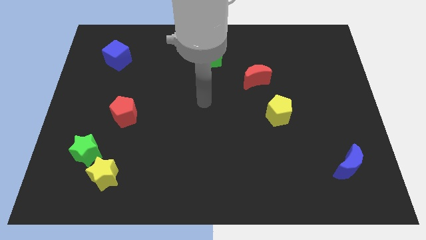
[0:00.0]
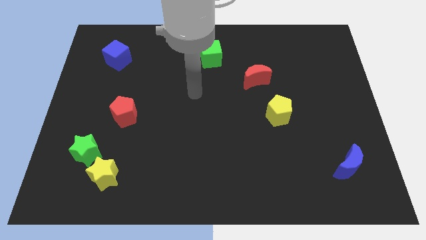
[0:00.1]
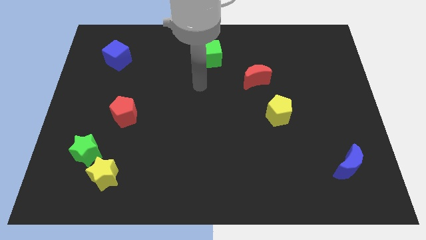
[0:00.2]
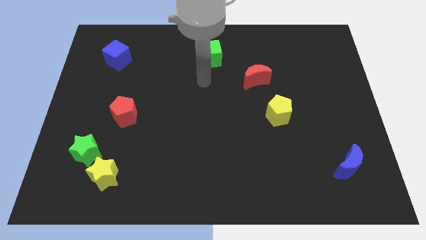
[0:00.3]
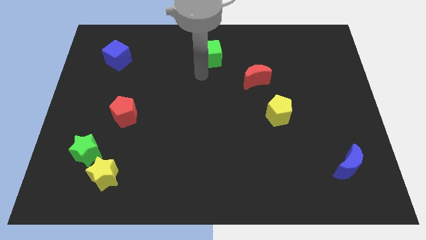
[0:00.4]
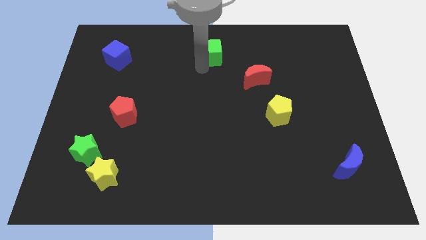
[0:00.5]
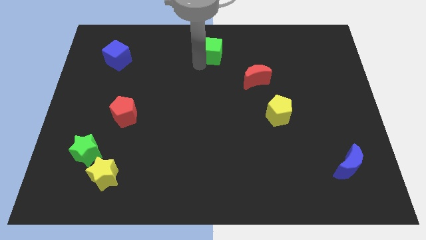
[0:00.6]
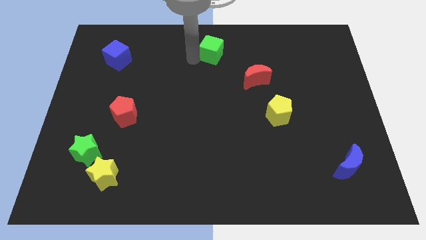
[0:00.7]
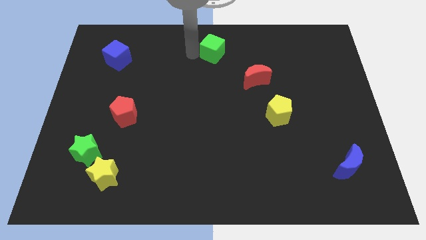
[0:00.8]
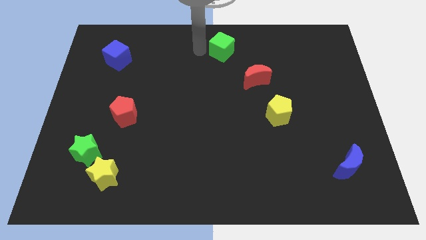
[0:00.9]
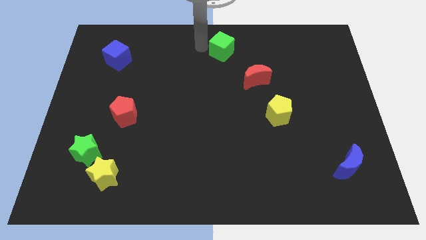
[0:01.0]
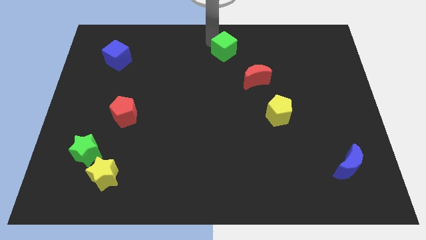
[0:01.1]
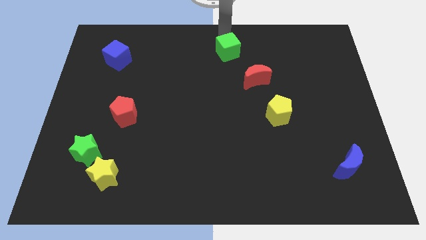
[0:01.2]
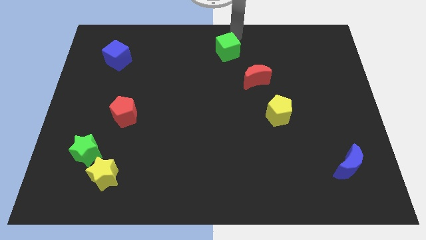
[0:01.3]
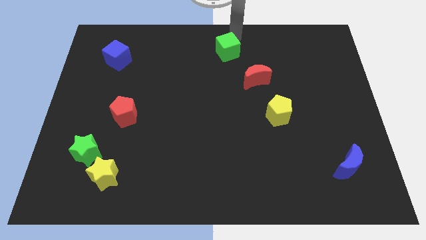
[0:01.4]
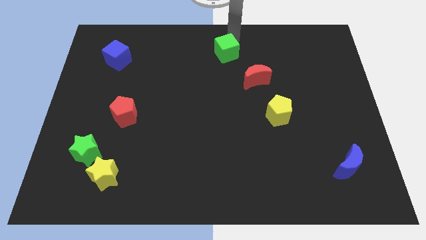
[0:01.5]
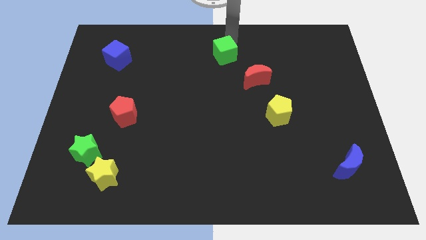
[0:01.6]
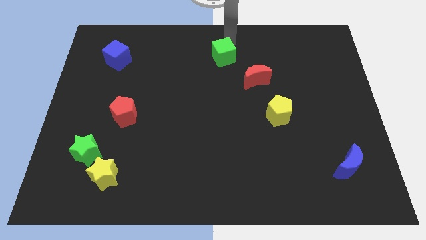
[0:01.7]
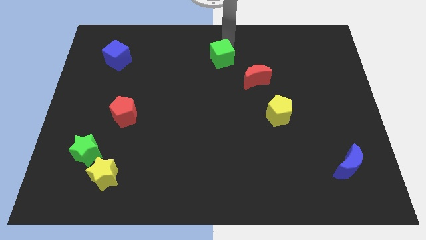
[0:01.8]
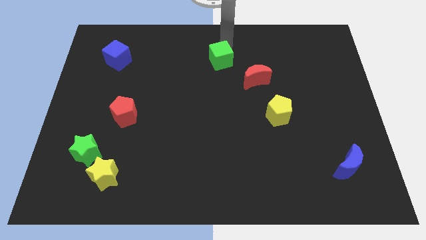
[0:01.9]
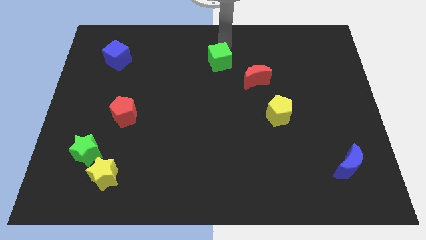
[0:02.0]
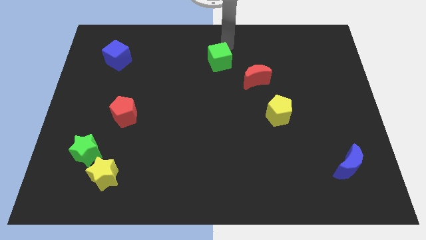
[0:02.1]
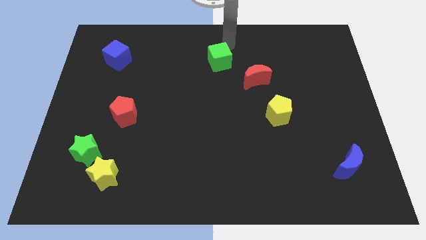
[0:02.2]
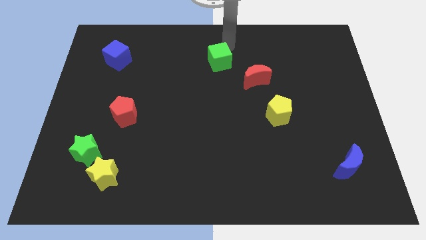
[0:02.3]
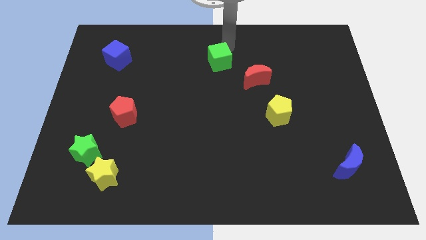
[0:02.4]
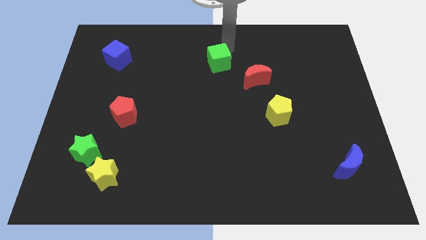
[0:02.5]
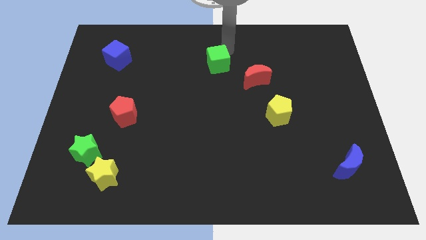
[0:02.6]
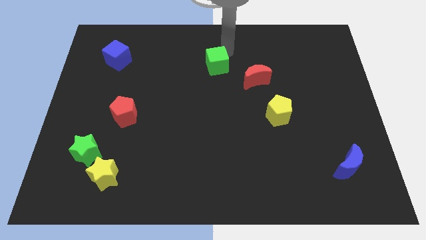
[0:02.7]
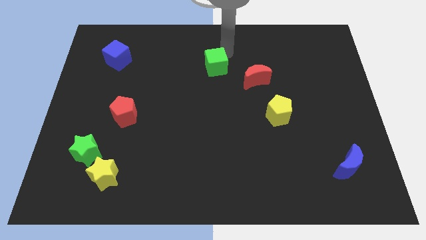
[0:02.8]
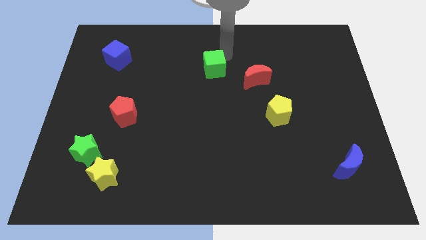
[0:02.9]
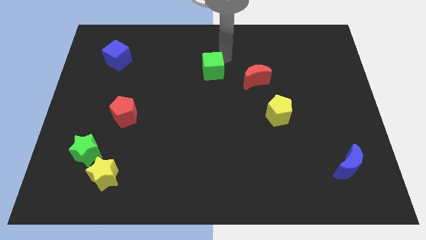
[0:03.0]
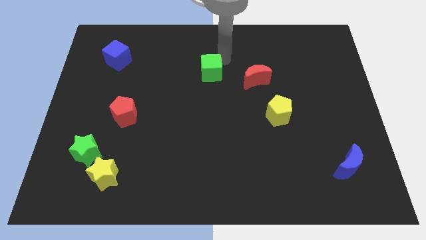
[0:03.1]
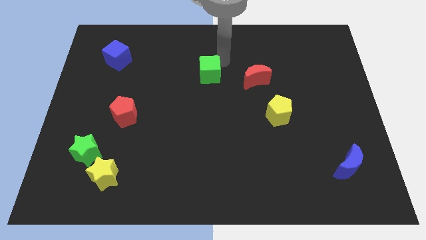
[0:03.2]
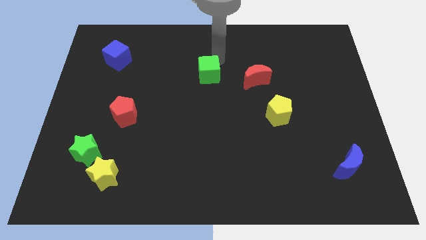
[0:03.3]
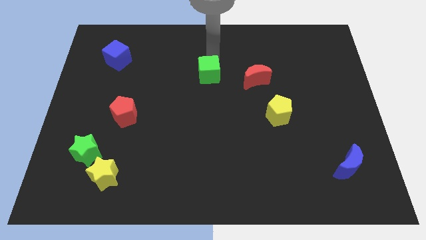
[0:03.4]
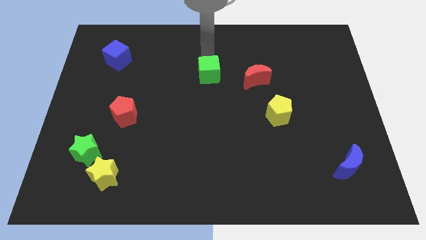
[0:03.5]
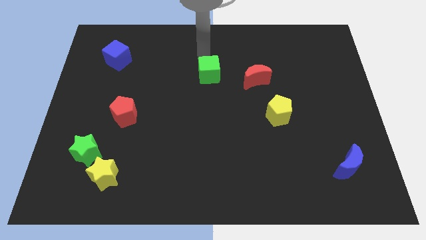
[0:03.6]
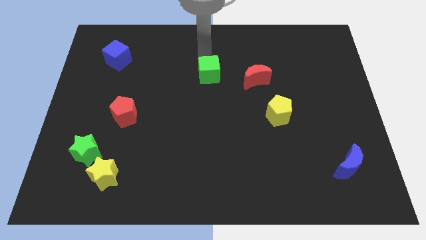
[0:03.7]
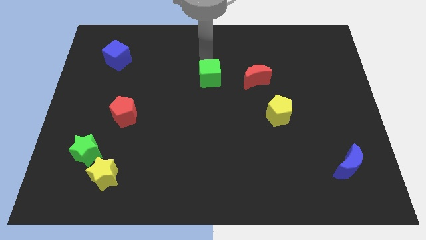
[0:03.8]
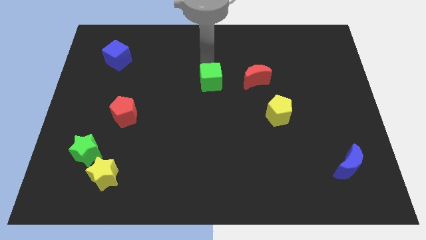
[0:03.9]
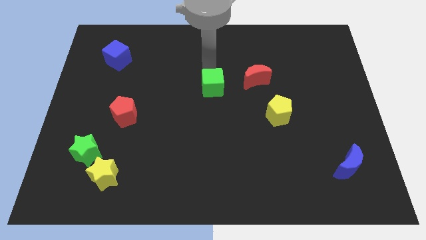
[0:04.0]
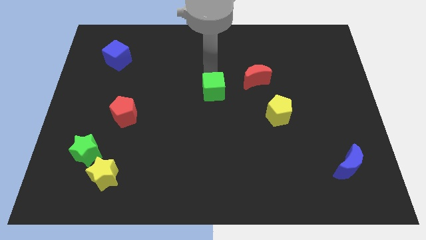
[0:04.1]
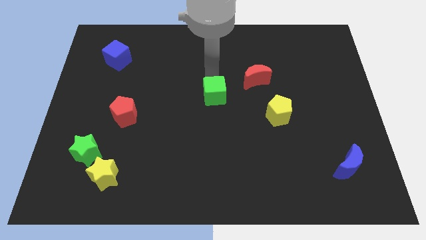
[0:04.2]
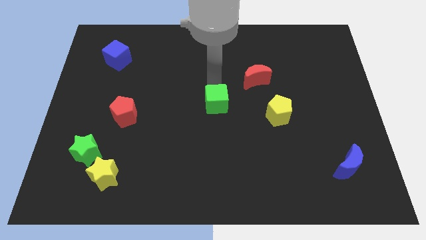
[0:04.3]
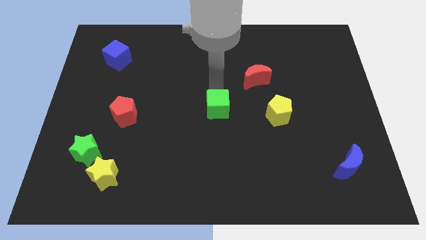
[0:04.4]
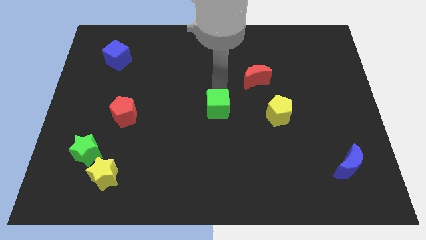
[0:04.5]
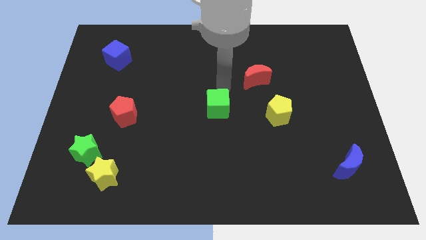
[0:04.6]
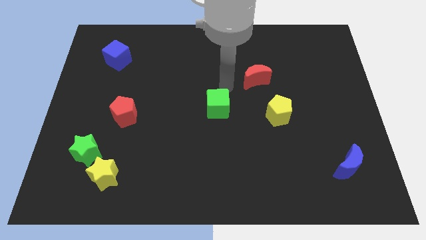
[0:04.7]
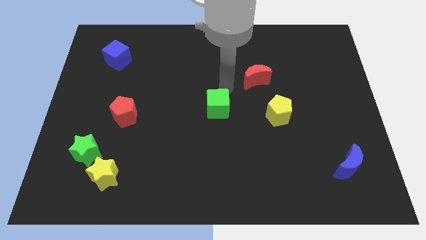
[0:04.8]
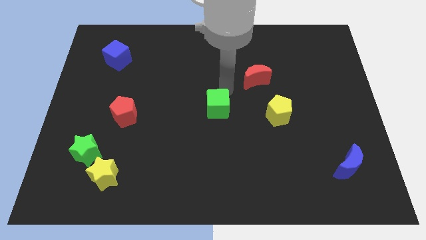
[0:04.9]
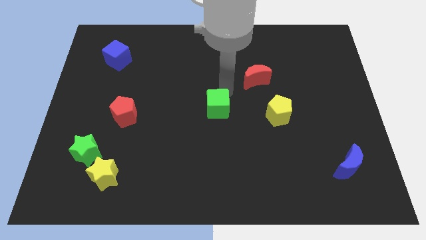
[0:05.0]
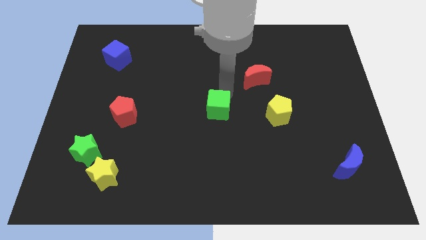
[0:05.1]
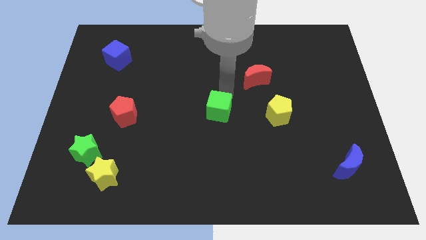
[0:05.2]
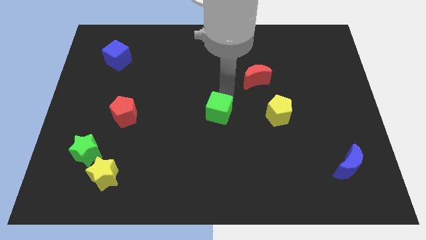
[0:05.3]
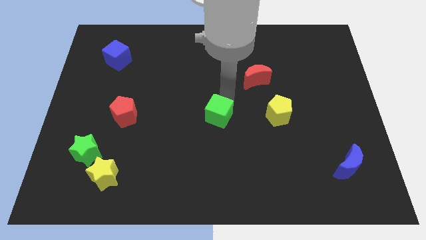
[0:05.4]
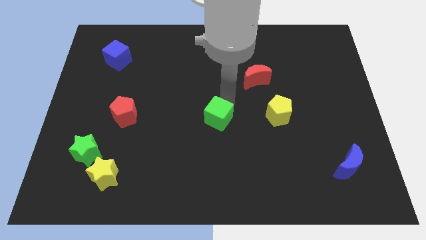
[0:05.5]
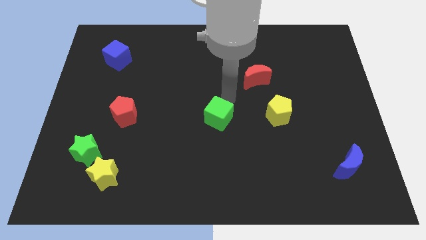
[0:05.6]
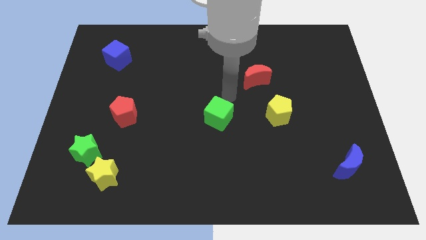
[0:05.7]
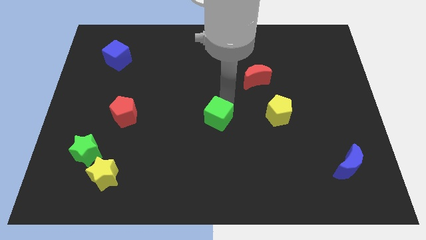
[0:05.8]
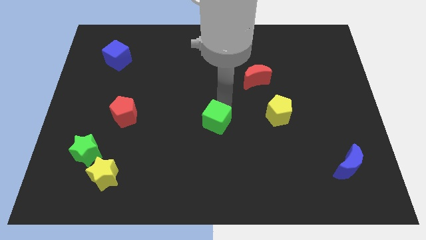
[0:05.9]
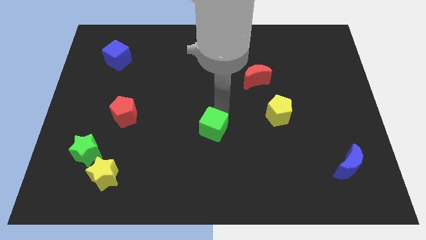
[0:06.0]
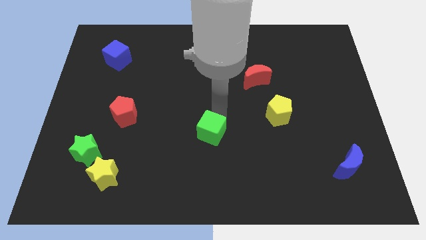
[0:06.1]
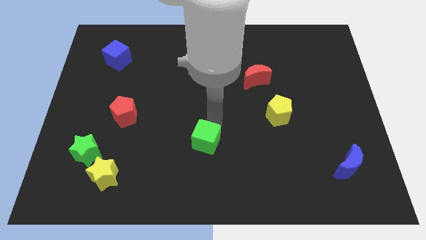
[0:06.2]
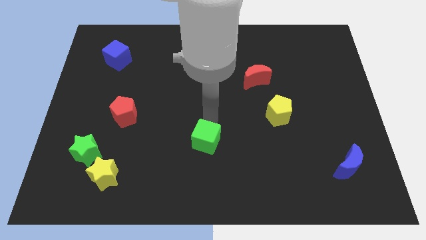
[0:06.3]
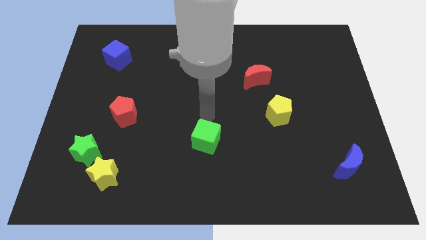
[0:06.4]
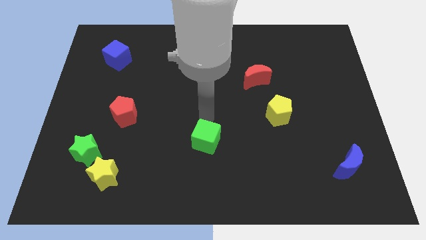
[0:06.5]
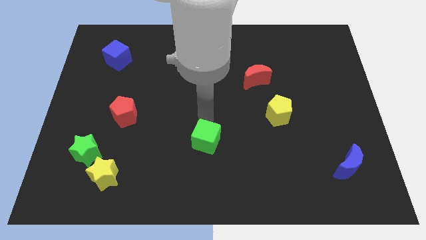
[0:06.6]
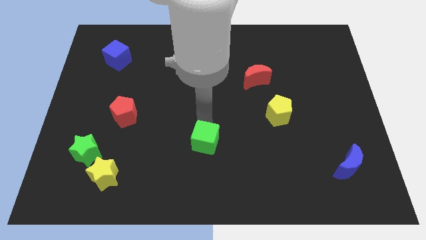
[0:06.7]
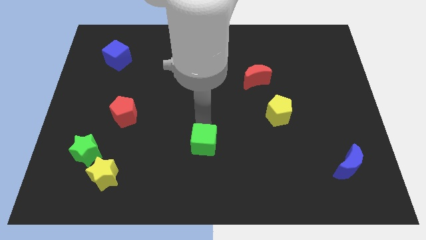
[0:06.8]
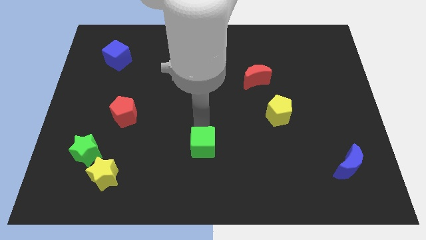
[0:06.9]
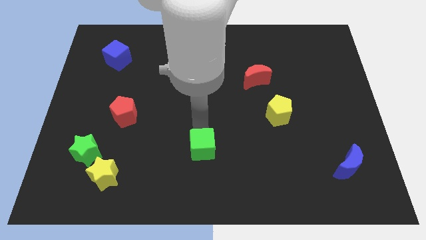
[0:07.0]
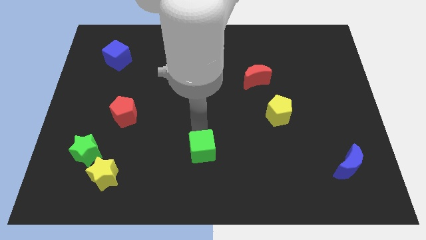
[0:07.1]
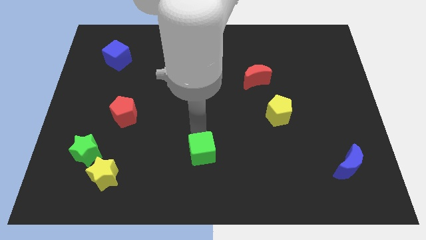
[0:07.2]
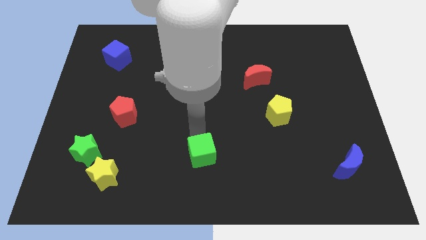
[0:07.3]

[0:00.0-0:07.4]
slide the green cube to the bottom side
